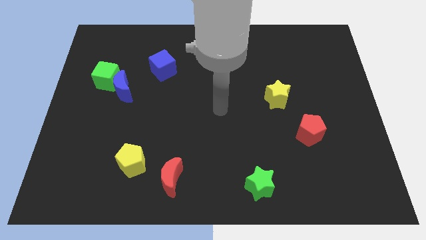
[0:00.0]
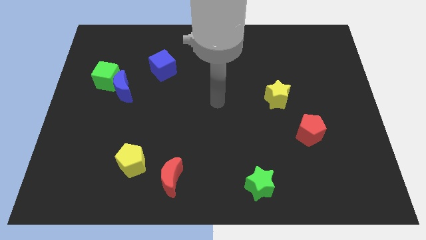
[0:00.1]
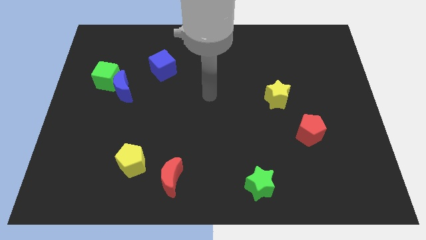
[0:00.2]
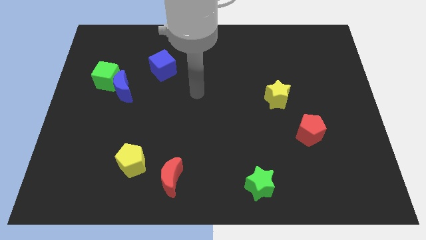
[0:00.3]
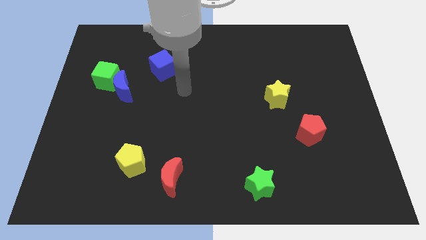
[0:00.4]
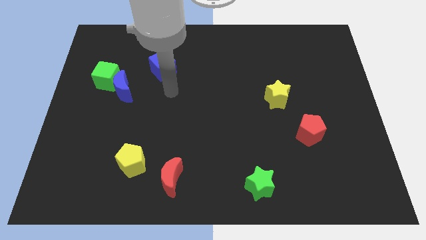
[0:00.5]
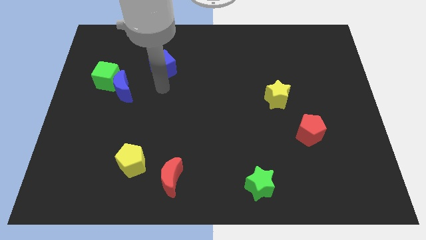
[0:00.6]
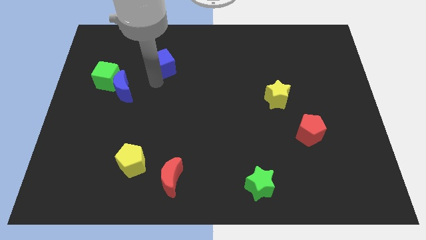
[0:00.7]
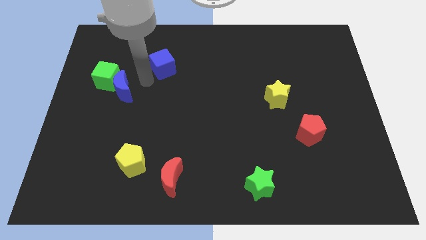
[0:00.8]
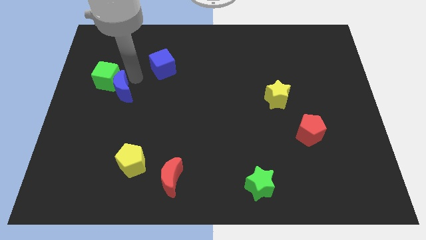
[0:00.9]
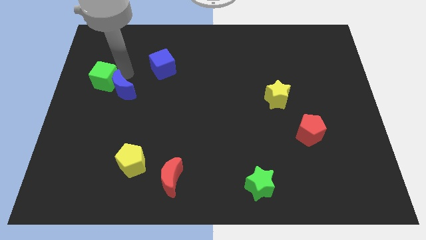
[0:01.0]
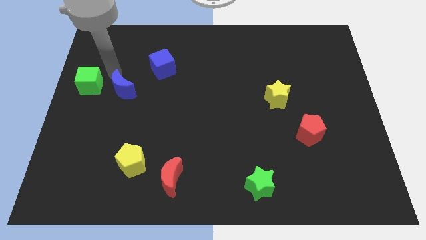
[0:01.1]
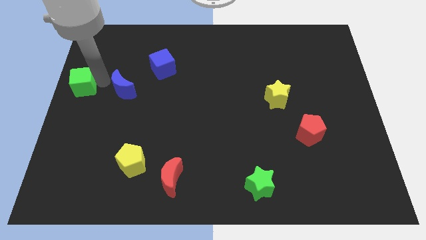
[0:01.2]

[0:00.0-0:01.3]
move the blue moon away from the green cube

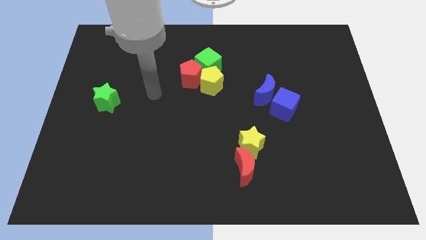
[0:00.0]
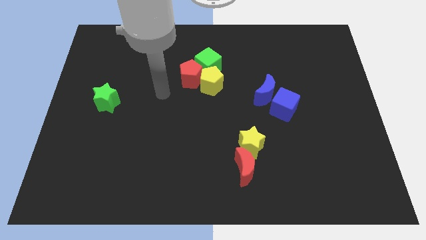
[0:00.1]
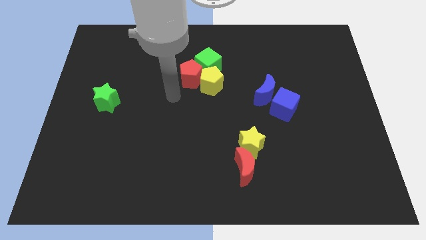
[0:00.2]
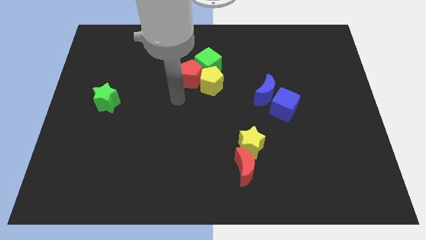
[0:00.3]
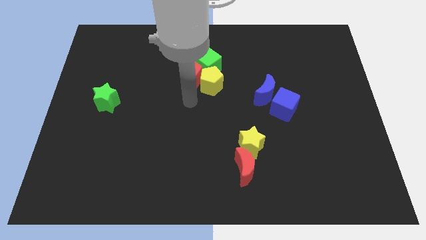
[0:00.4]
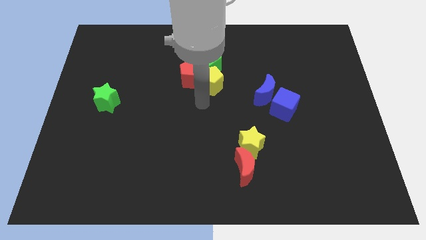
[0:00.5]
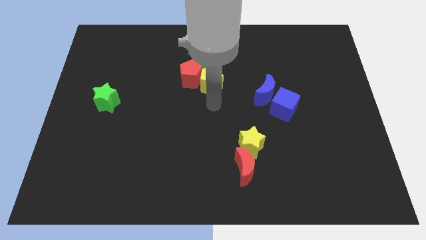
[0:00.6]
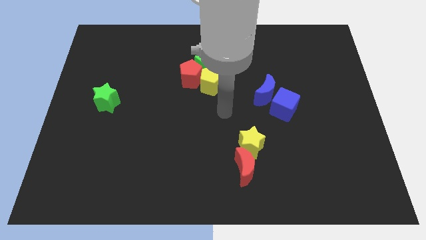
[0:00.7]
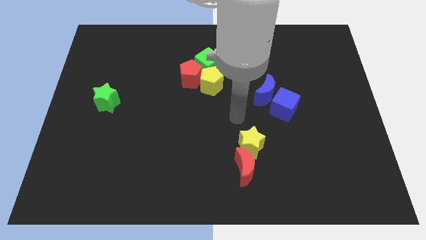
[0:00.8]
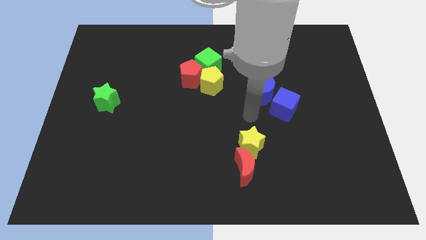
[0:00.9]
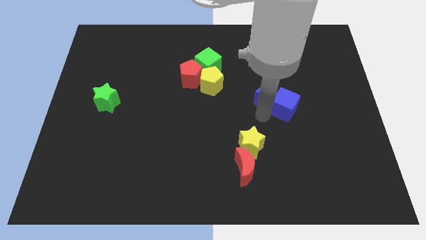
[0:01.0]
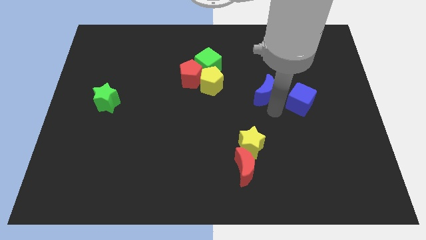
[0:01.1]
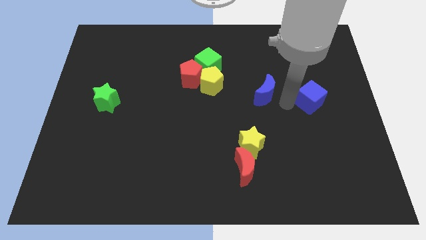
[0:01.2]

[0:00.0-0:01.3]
separate the blue moon from the blue cube

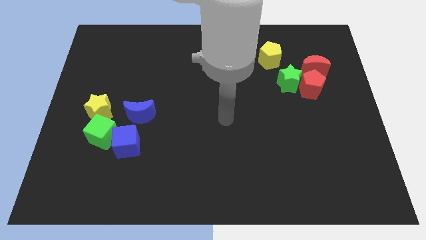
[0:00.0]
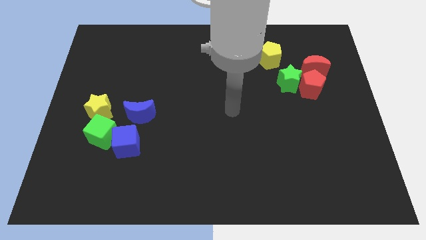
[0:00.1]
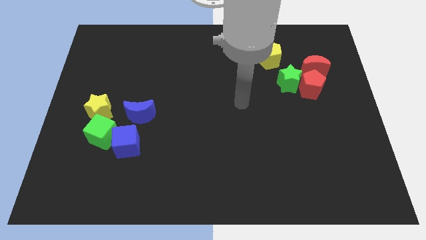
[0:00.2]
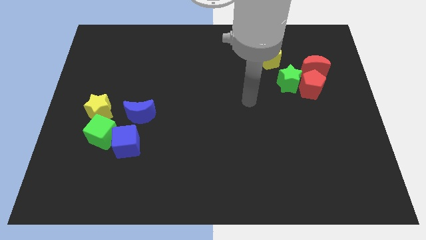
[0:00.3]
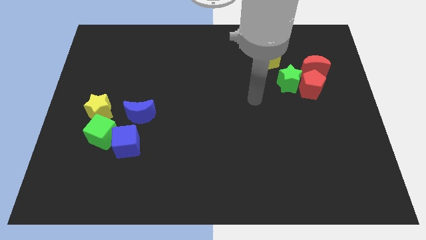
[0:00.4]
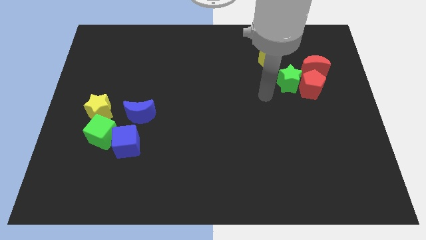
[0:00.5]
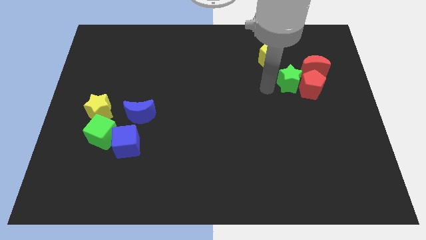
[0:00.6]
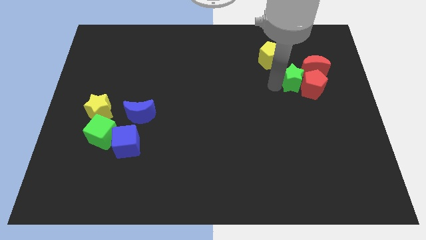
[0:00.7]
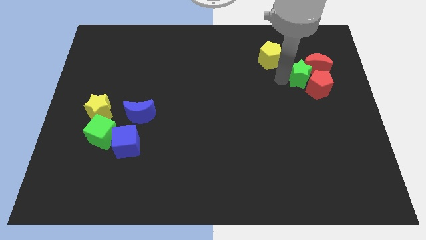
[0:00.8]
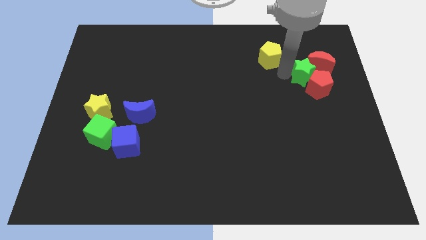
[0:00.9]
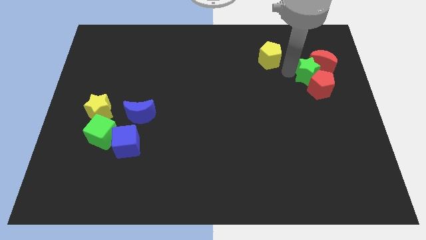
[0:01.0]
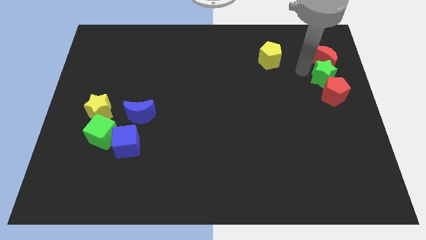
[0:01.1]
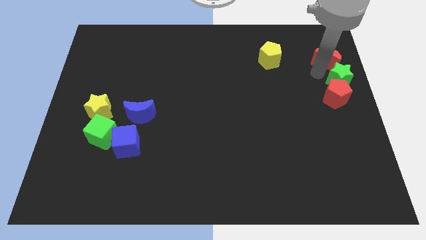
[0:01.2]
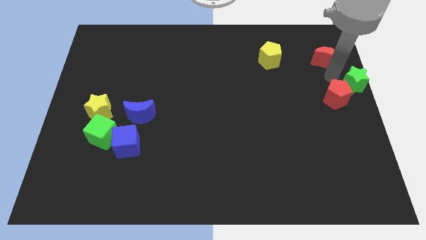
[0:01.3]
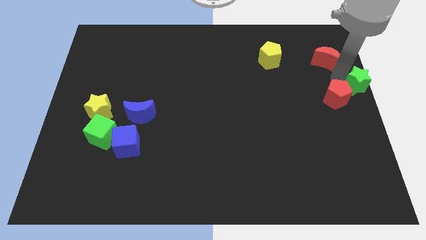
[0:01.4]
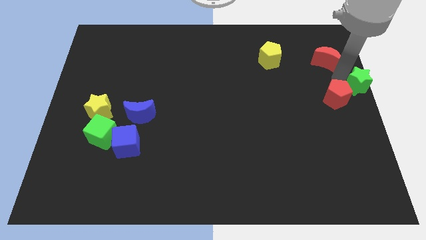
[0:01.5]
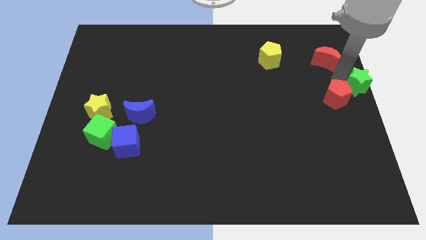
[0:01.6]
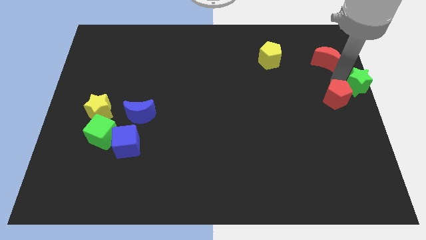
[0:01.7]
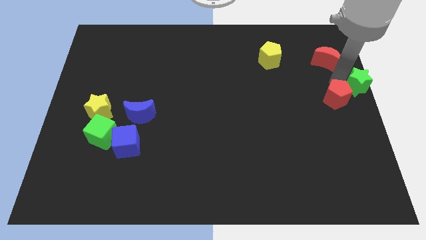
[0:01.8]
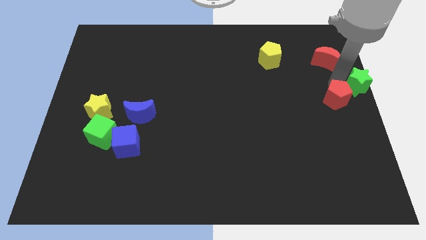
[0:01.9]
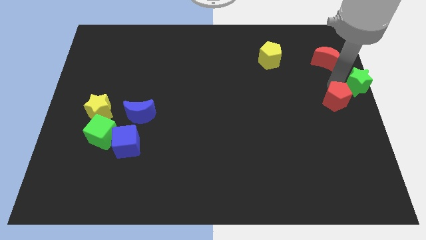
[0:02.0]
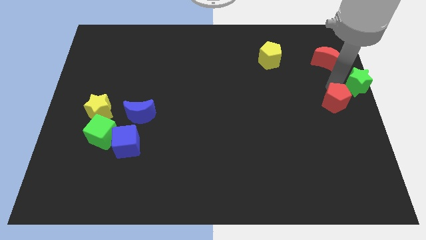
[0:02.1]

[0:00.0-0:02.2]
move the red pentagon away from the green star and red moon

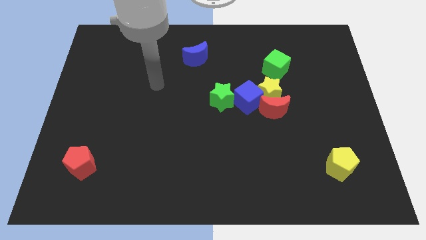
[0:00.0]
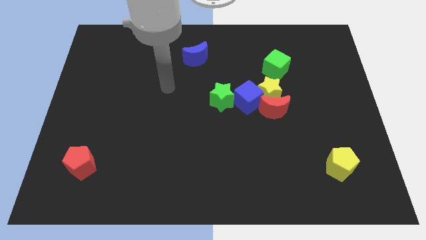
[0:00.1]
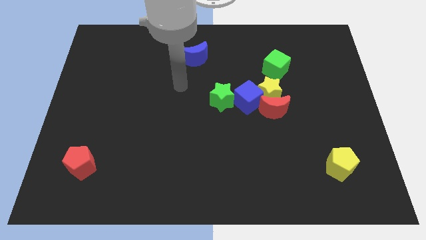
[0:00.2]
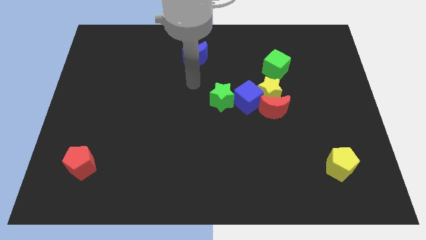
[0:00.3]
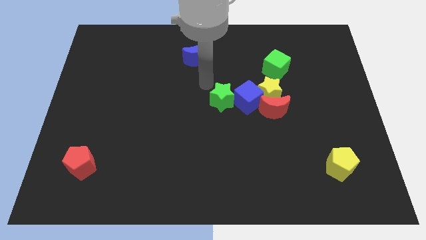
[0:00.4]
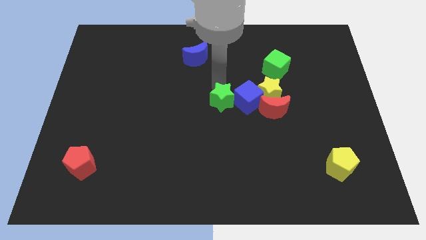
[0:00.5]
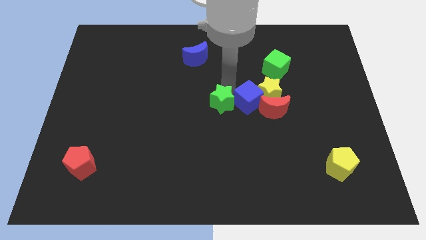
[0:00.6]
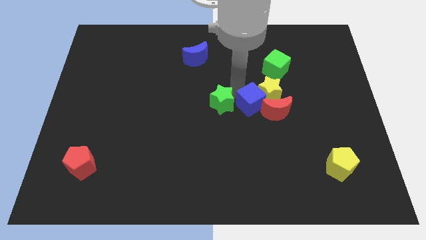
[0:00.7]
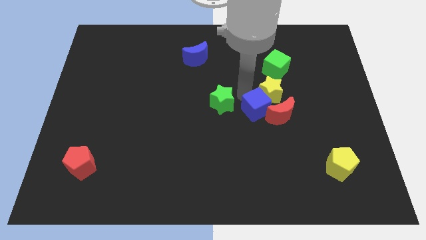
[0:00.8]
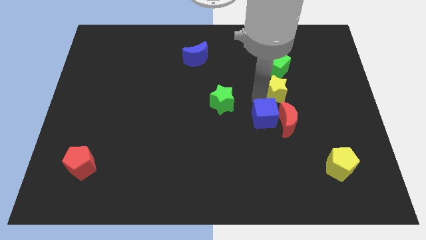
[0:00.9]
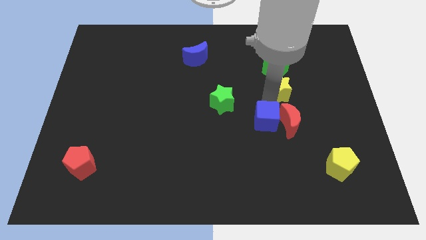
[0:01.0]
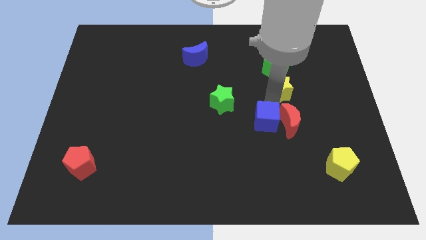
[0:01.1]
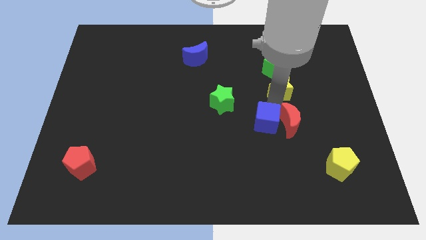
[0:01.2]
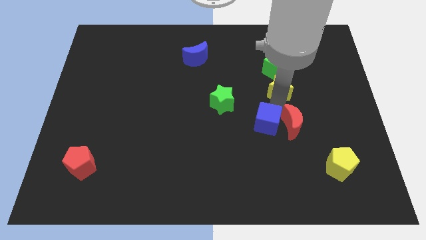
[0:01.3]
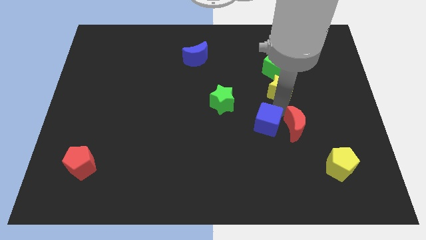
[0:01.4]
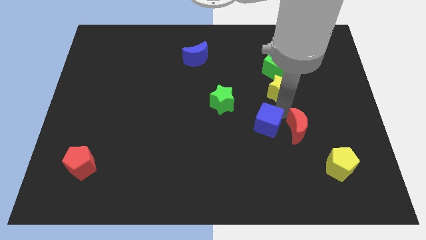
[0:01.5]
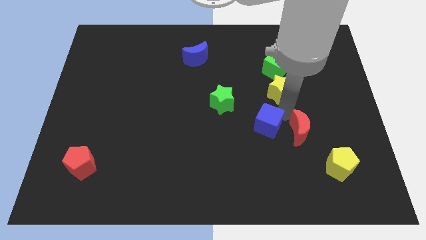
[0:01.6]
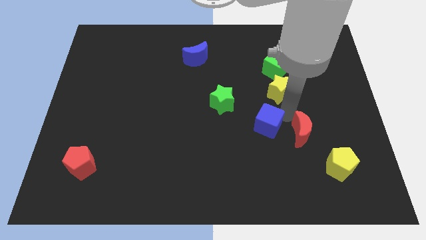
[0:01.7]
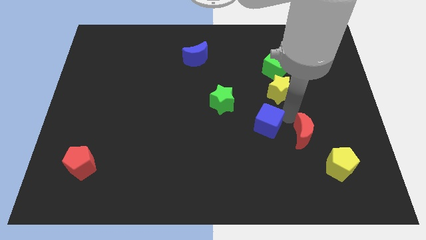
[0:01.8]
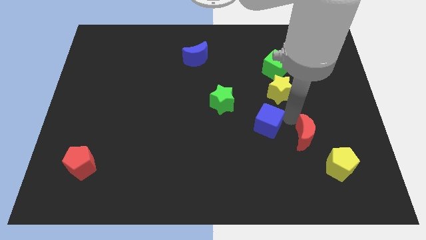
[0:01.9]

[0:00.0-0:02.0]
move the red moon away from the yellow star and blue cube

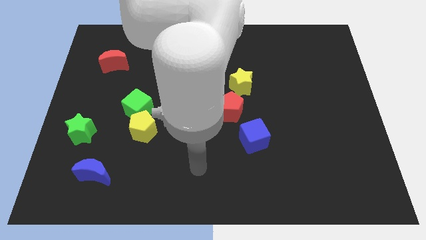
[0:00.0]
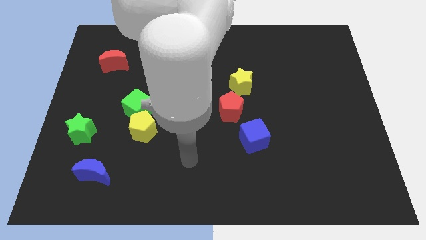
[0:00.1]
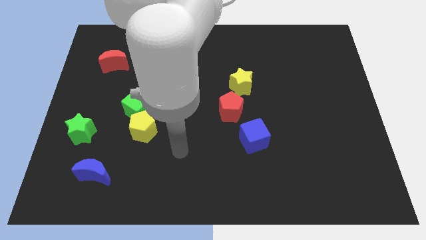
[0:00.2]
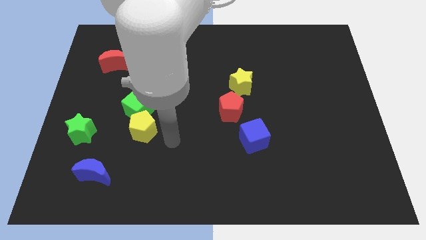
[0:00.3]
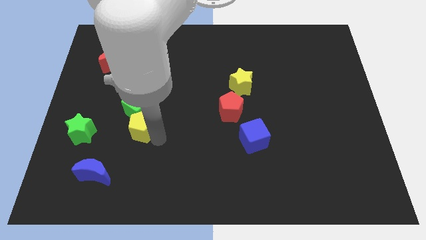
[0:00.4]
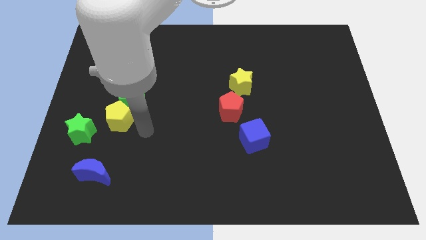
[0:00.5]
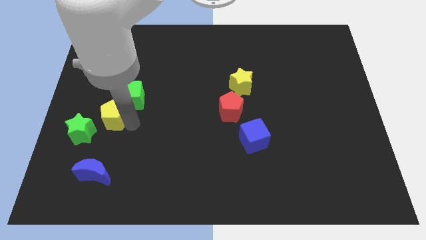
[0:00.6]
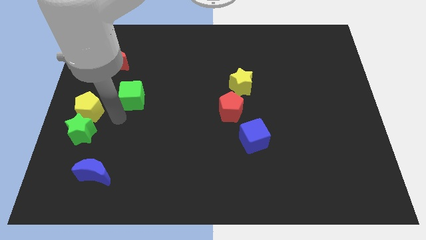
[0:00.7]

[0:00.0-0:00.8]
move the green cube away from the yellow pentagon

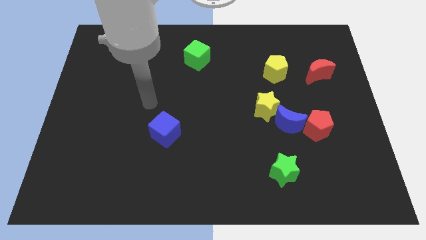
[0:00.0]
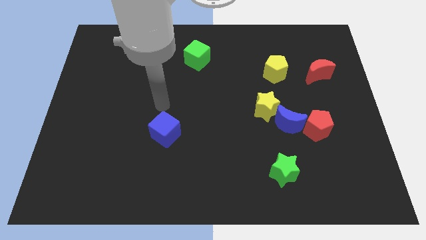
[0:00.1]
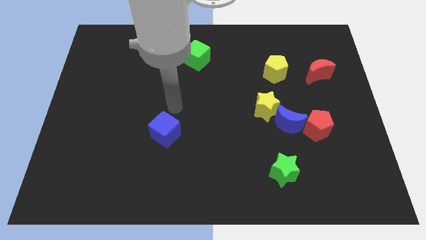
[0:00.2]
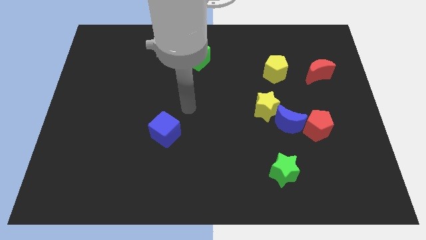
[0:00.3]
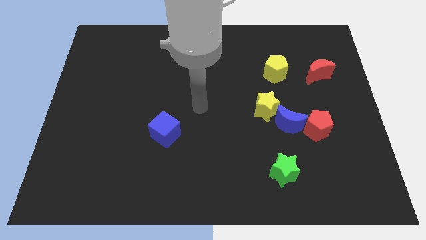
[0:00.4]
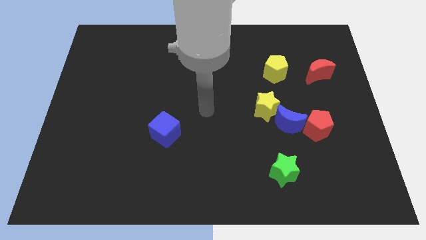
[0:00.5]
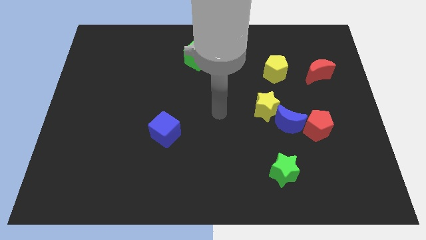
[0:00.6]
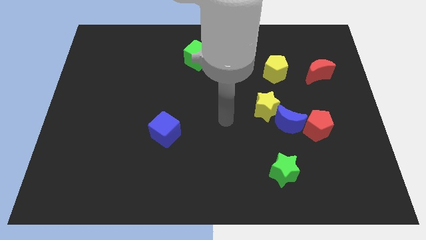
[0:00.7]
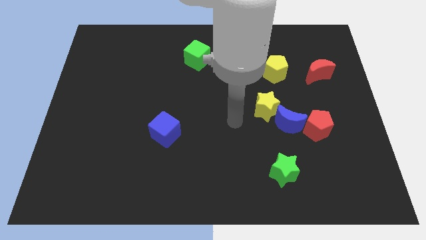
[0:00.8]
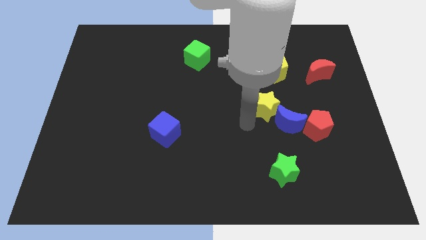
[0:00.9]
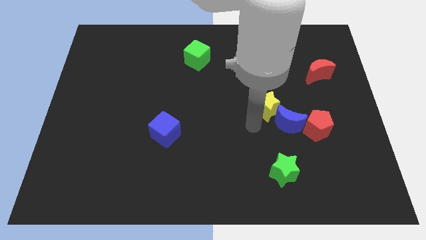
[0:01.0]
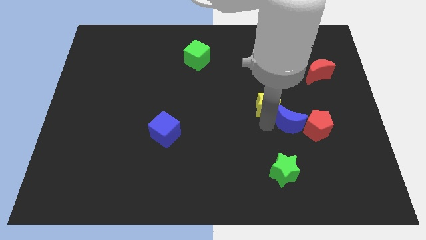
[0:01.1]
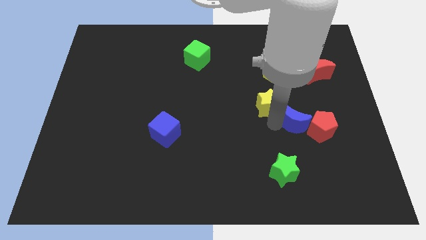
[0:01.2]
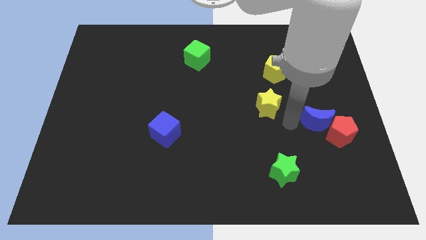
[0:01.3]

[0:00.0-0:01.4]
move the yellow star away from the blue moon

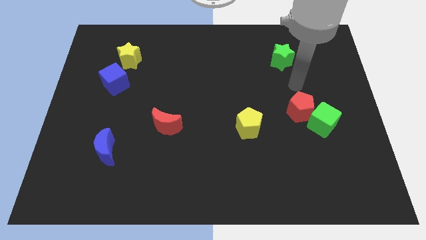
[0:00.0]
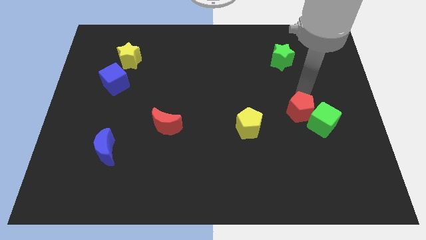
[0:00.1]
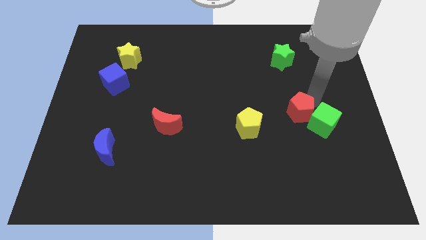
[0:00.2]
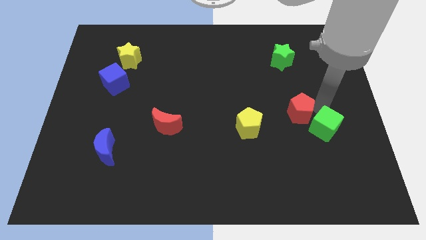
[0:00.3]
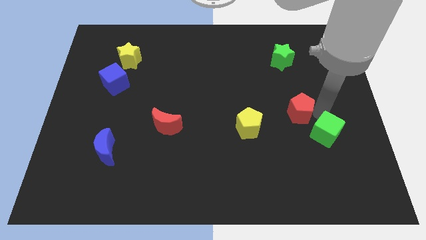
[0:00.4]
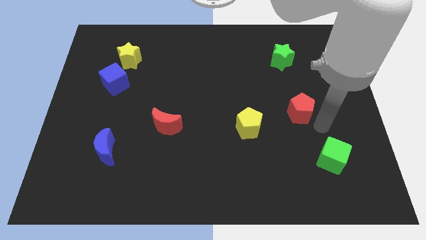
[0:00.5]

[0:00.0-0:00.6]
separate the red pentagon from the green cube
